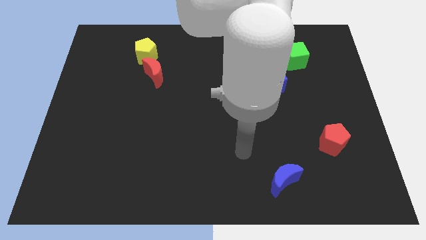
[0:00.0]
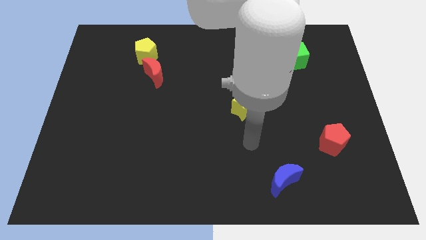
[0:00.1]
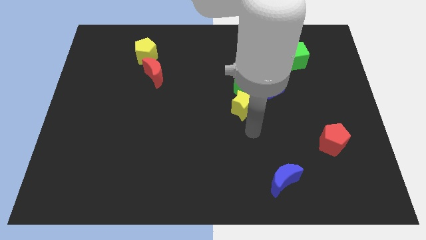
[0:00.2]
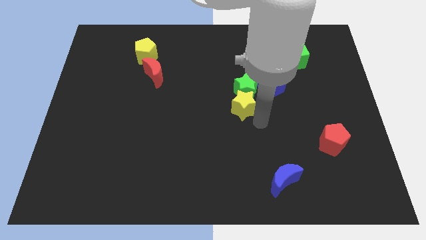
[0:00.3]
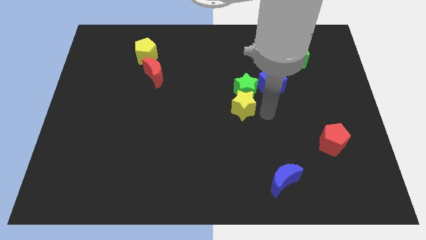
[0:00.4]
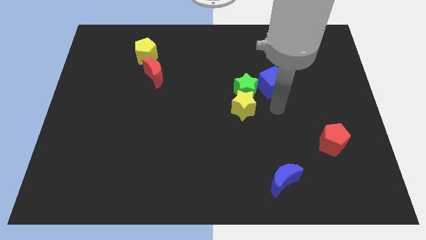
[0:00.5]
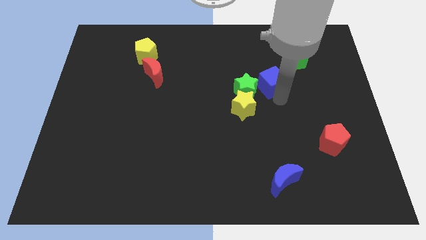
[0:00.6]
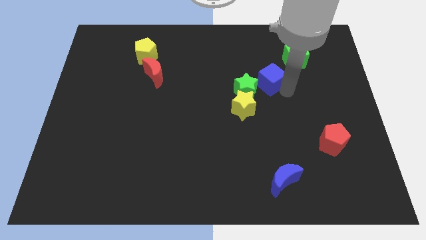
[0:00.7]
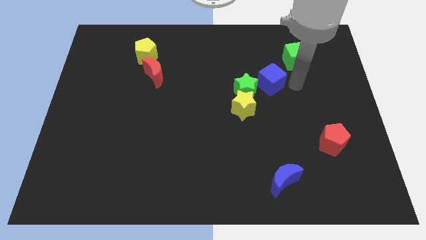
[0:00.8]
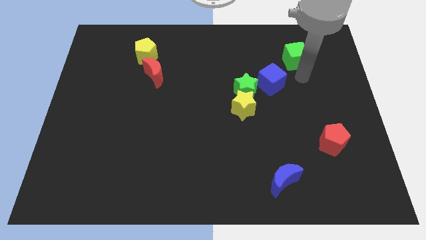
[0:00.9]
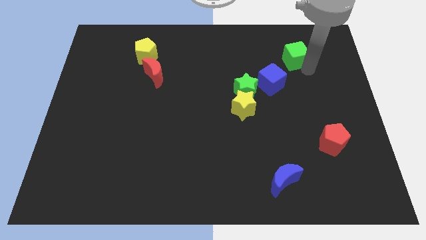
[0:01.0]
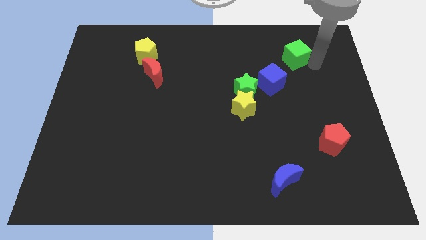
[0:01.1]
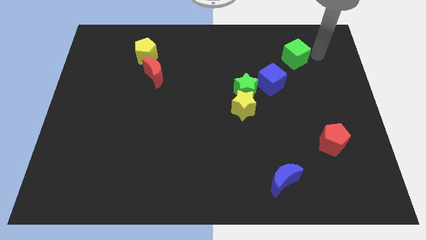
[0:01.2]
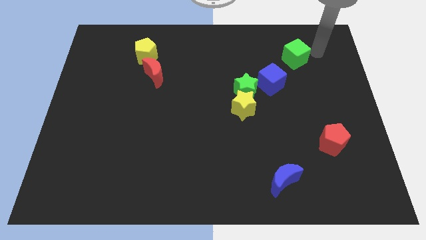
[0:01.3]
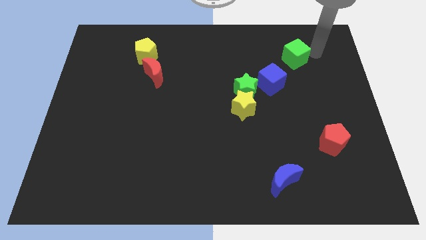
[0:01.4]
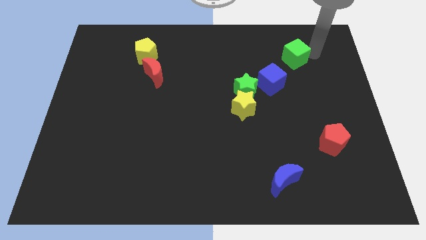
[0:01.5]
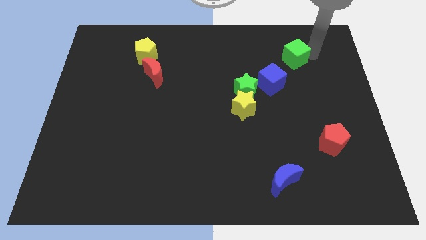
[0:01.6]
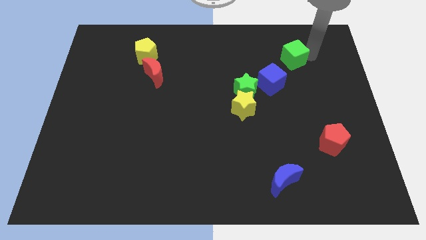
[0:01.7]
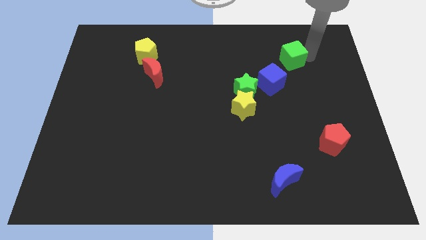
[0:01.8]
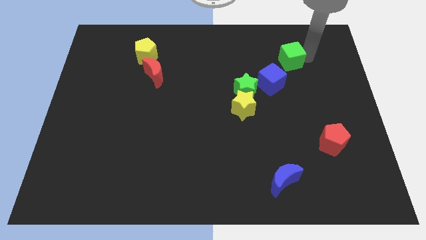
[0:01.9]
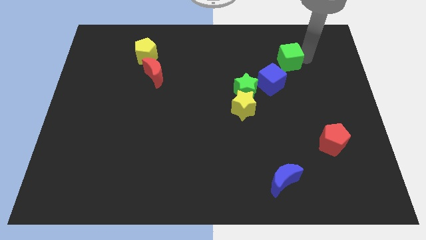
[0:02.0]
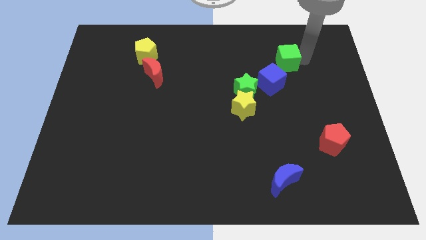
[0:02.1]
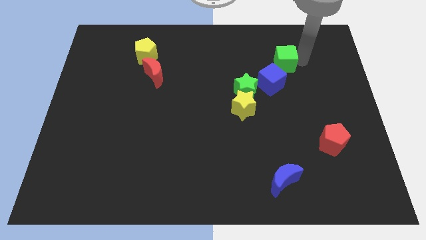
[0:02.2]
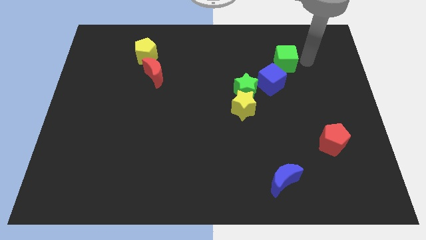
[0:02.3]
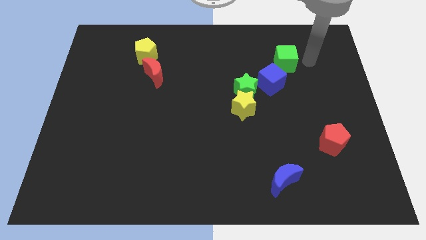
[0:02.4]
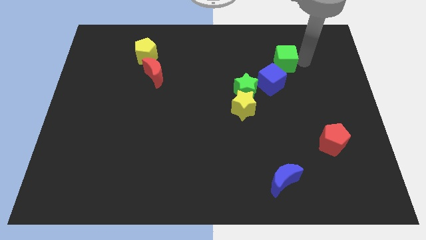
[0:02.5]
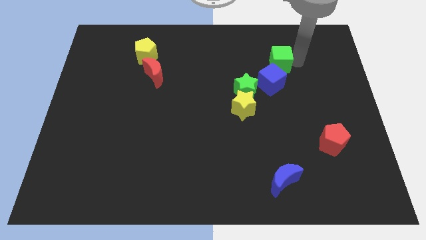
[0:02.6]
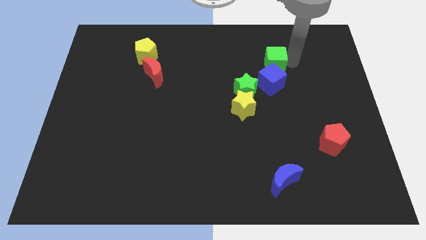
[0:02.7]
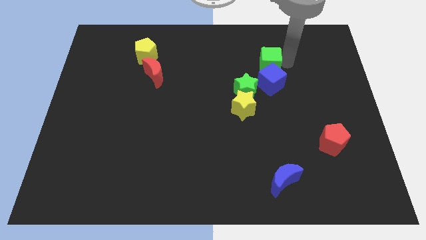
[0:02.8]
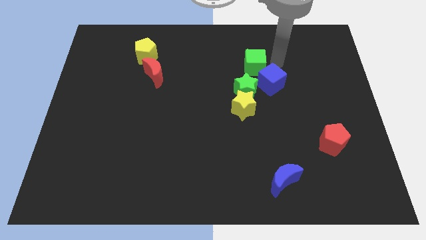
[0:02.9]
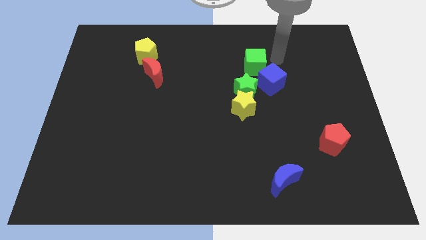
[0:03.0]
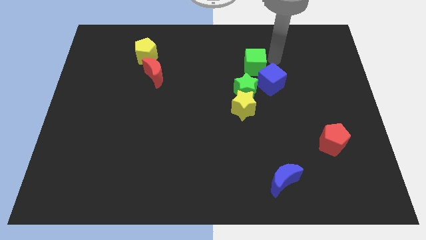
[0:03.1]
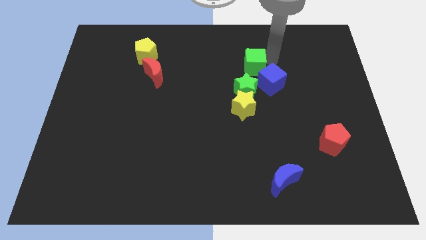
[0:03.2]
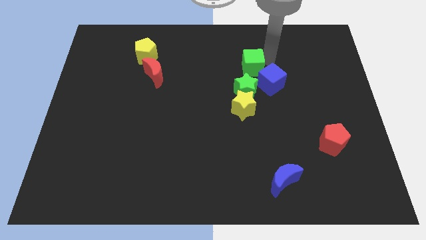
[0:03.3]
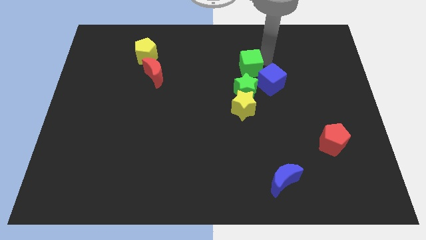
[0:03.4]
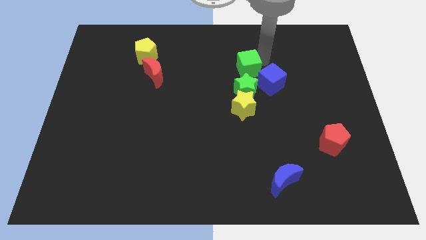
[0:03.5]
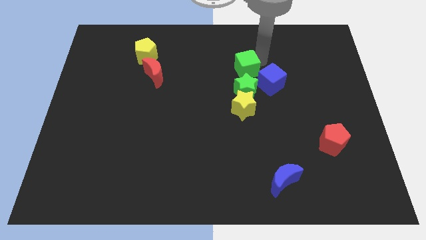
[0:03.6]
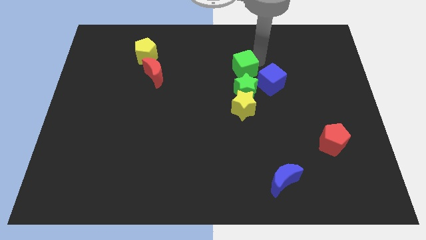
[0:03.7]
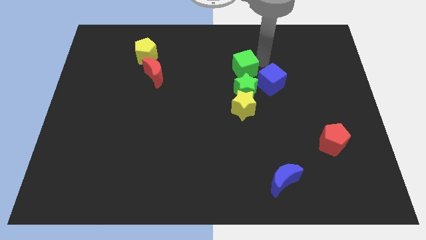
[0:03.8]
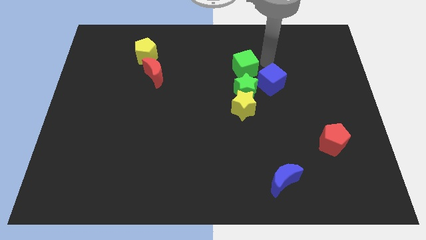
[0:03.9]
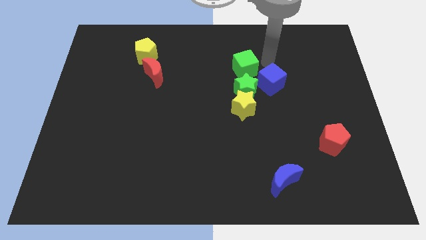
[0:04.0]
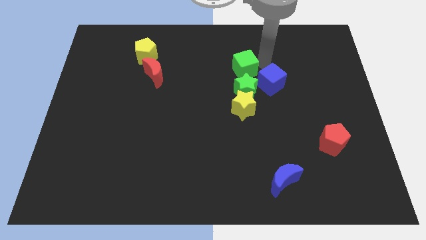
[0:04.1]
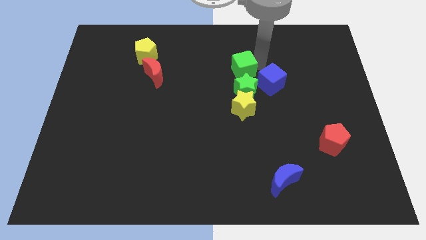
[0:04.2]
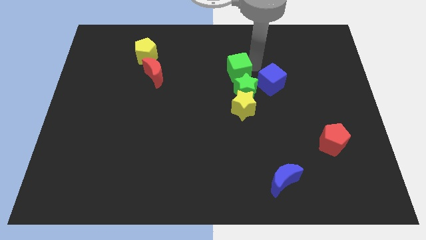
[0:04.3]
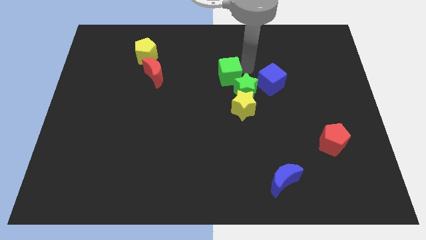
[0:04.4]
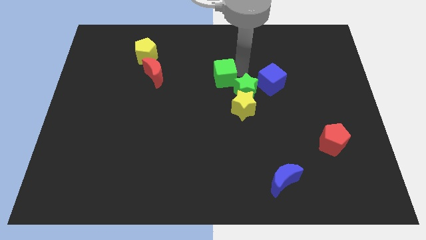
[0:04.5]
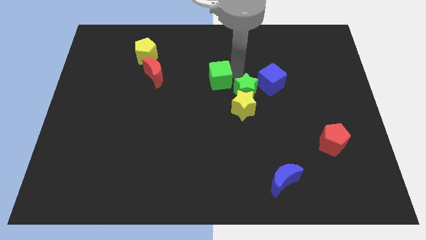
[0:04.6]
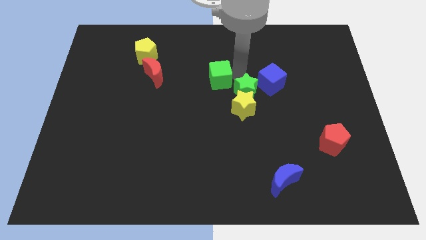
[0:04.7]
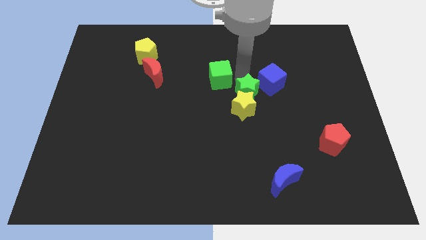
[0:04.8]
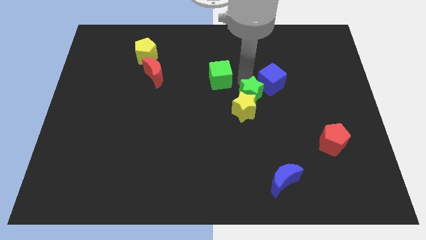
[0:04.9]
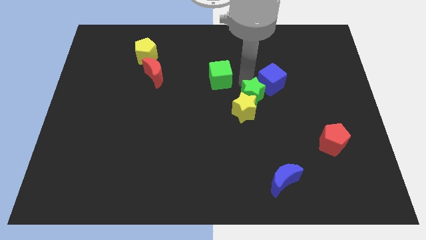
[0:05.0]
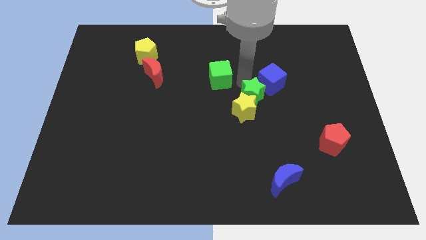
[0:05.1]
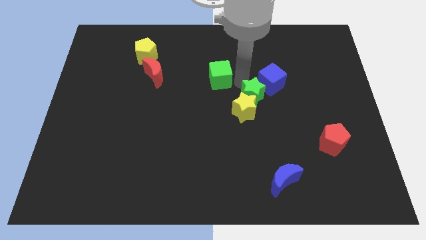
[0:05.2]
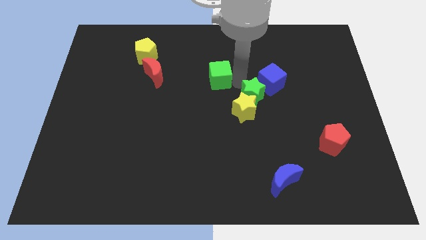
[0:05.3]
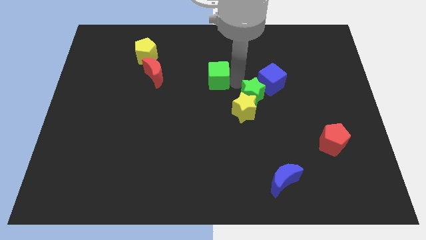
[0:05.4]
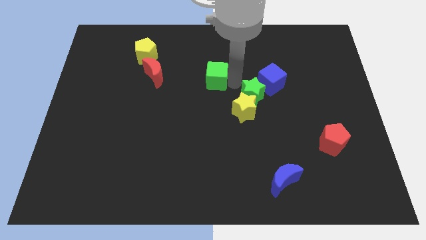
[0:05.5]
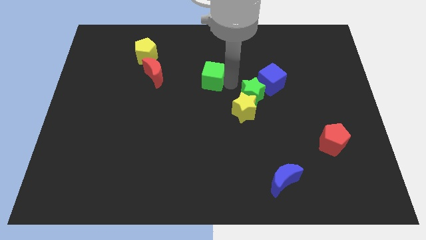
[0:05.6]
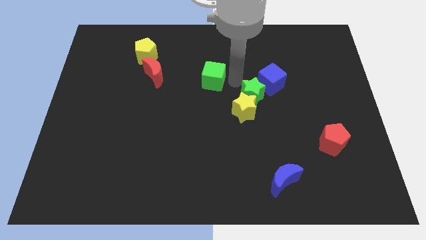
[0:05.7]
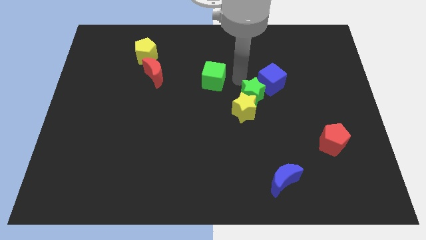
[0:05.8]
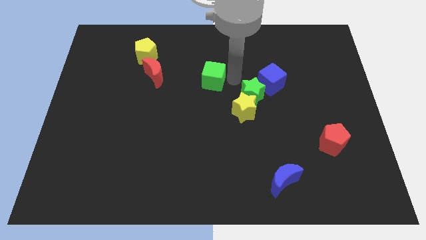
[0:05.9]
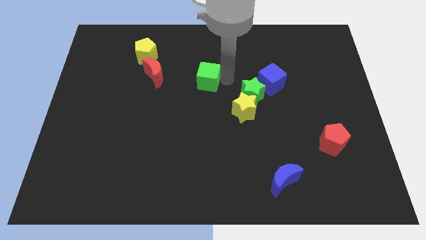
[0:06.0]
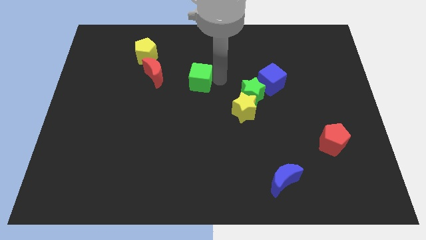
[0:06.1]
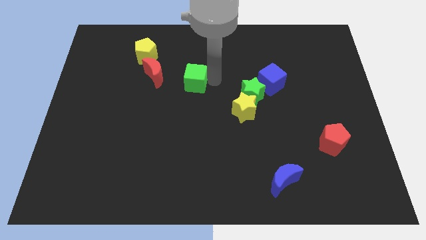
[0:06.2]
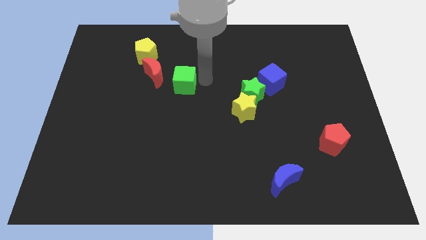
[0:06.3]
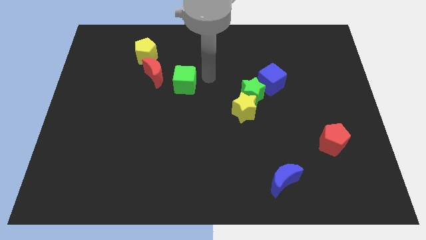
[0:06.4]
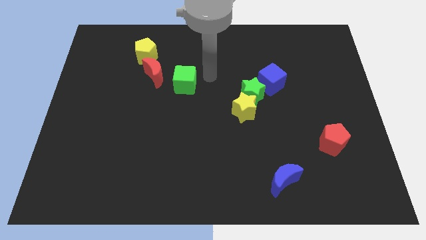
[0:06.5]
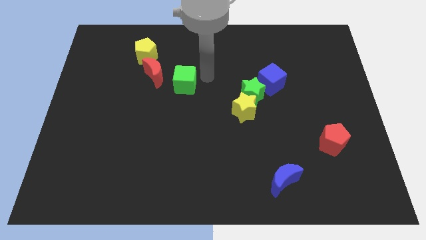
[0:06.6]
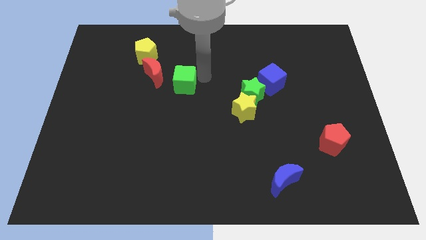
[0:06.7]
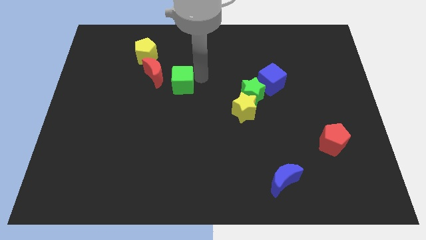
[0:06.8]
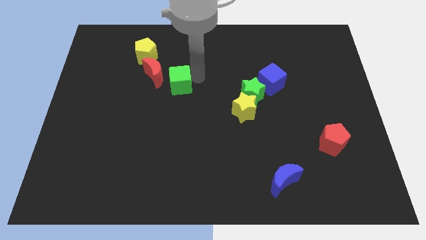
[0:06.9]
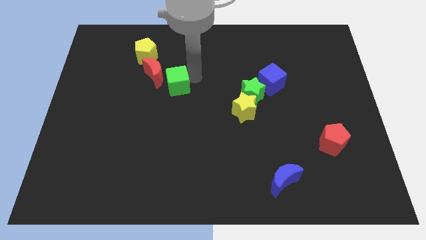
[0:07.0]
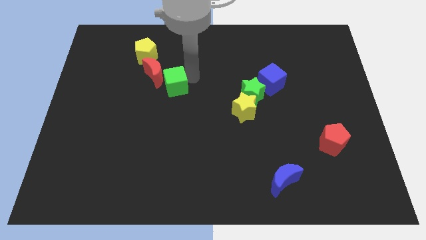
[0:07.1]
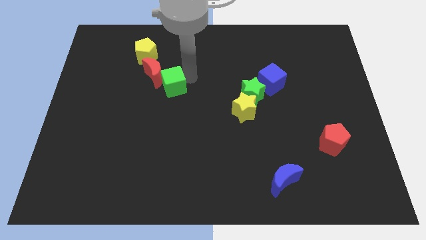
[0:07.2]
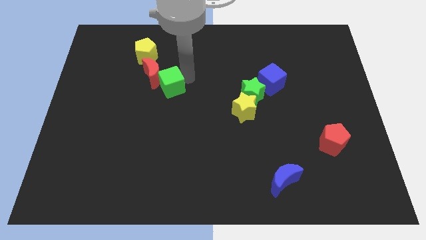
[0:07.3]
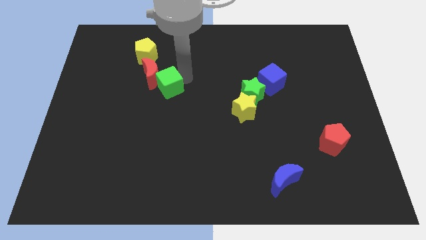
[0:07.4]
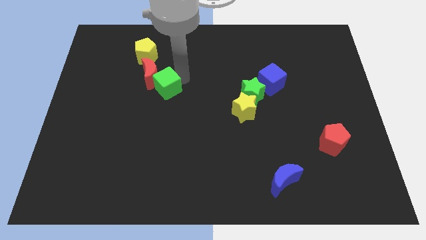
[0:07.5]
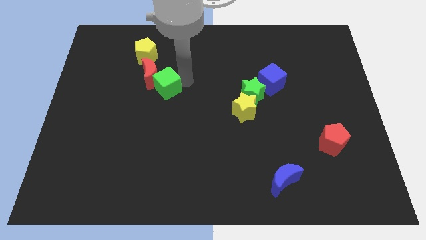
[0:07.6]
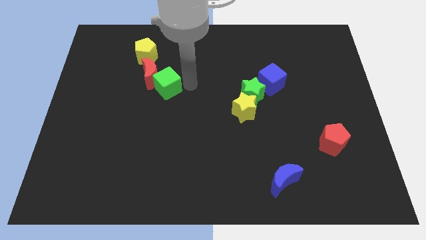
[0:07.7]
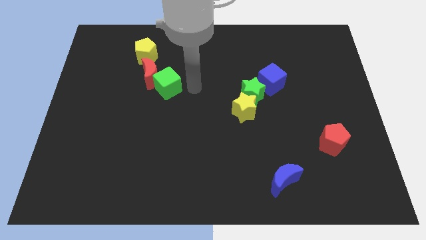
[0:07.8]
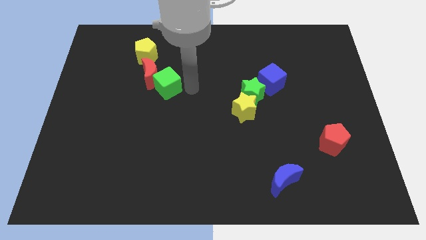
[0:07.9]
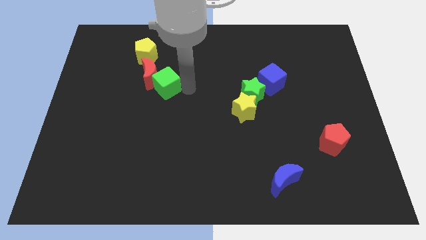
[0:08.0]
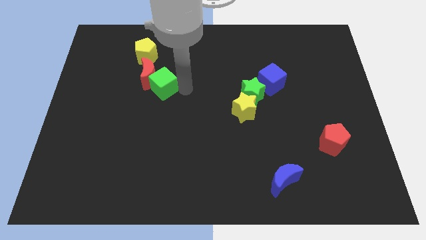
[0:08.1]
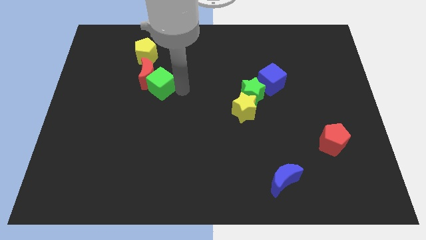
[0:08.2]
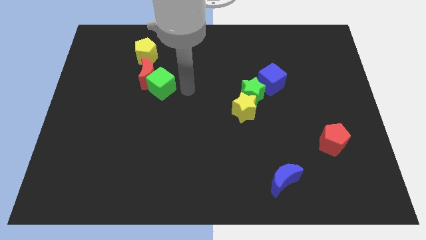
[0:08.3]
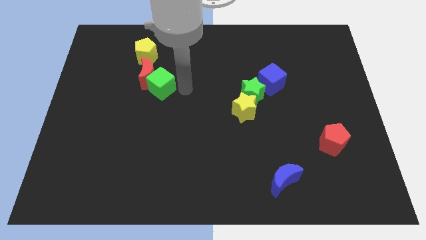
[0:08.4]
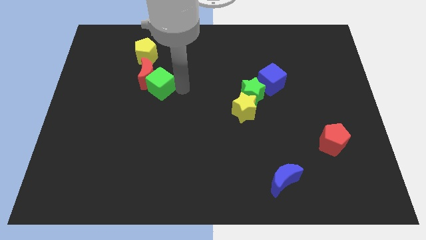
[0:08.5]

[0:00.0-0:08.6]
push the green cube below the yellow pentagon
